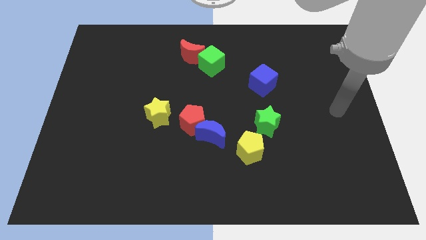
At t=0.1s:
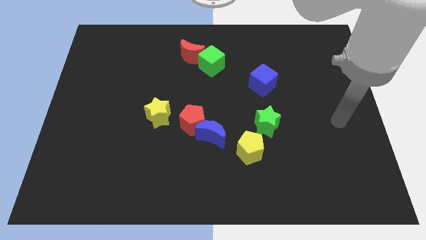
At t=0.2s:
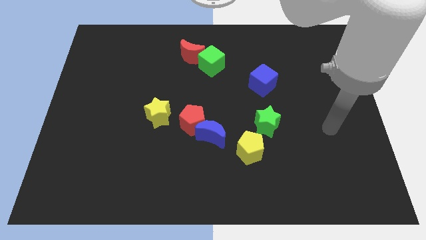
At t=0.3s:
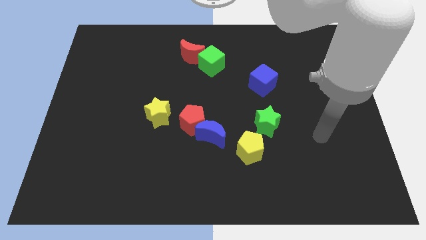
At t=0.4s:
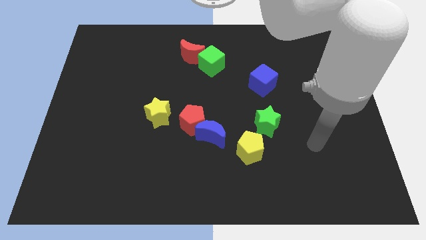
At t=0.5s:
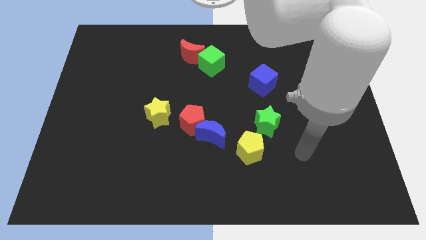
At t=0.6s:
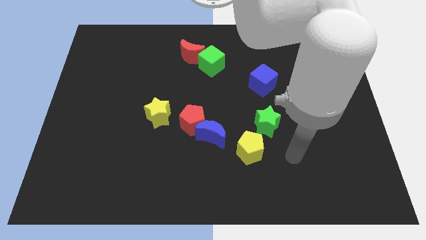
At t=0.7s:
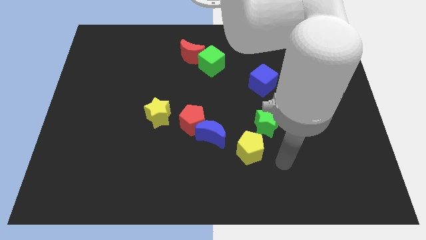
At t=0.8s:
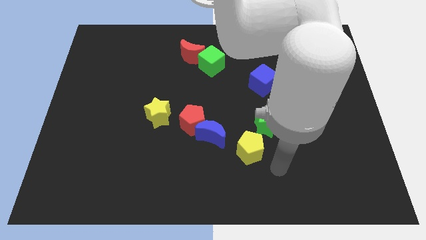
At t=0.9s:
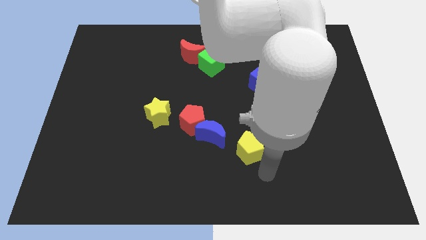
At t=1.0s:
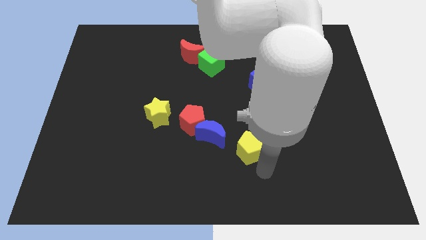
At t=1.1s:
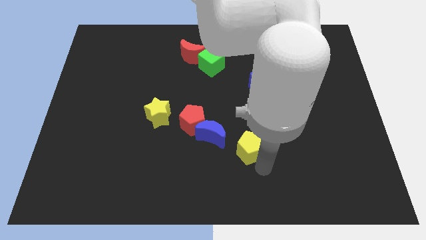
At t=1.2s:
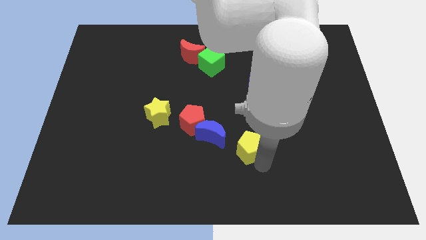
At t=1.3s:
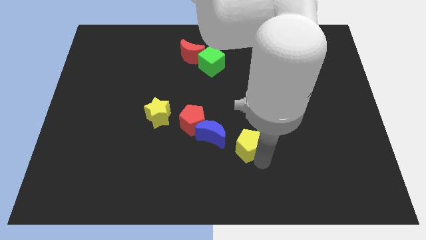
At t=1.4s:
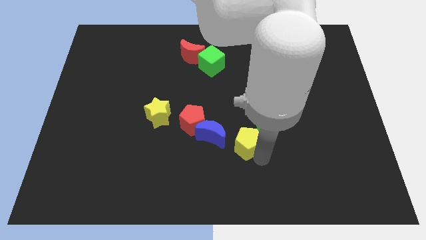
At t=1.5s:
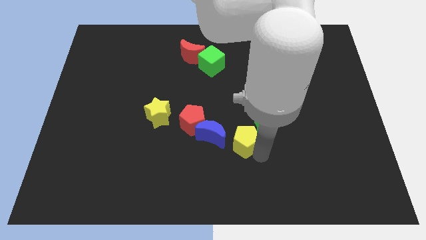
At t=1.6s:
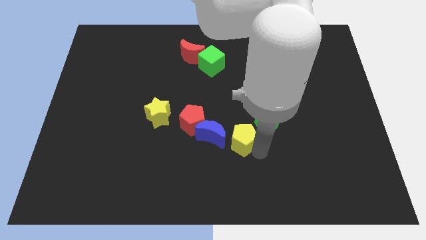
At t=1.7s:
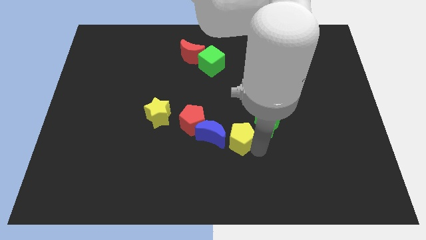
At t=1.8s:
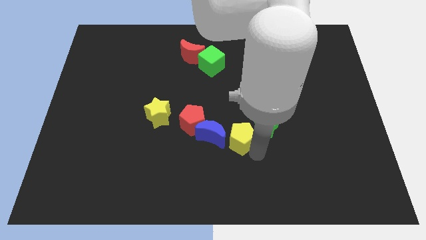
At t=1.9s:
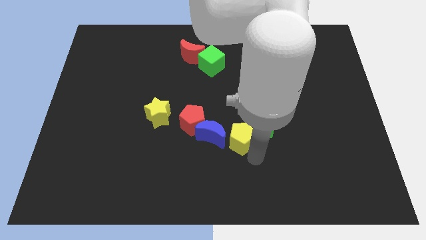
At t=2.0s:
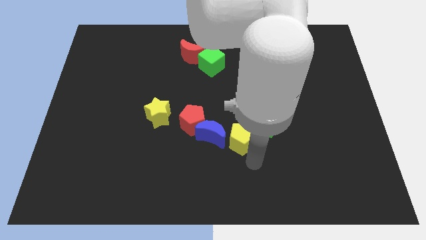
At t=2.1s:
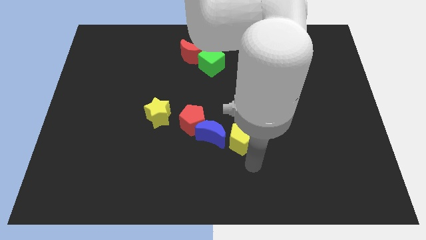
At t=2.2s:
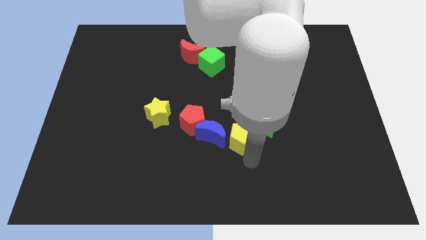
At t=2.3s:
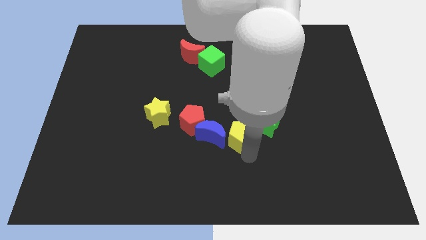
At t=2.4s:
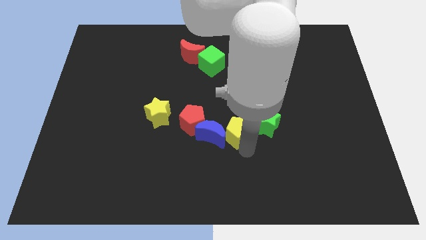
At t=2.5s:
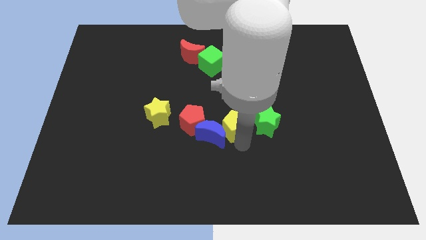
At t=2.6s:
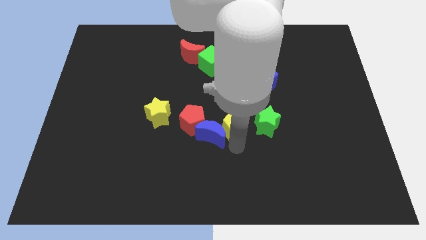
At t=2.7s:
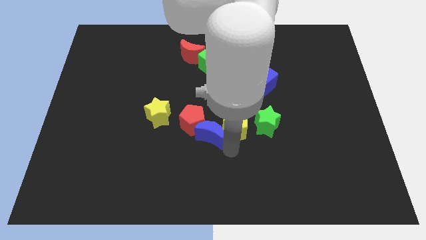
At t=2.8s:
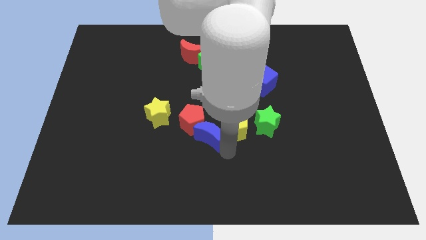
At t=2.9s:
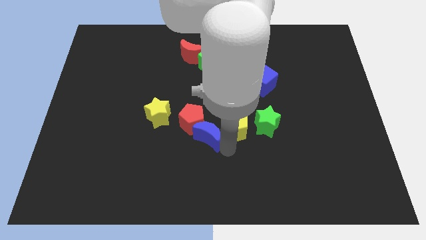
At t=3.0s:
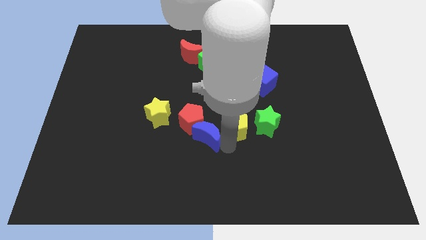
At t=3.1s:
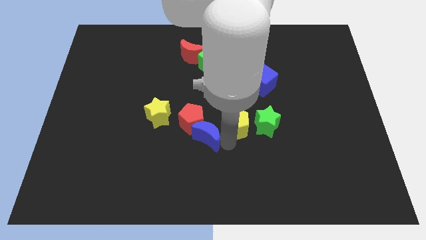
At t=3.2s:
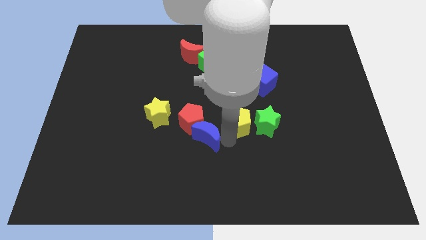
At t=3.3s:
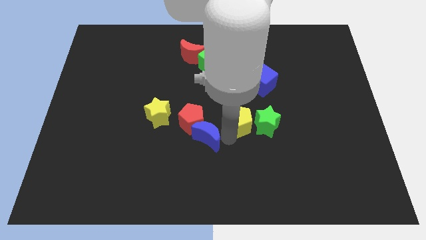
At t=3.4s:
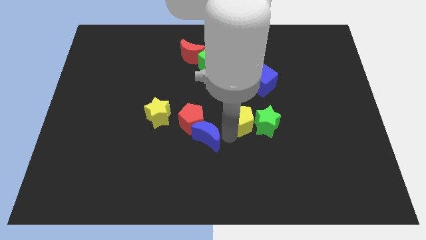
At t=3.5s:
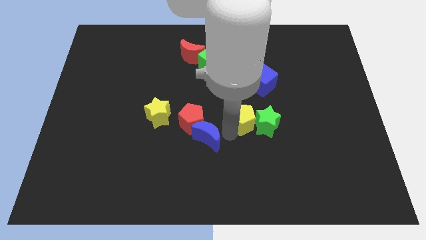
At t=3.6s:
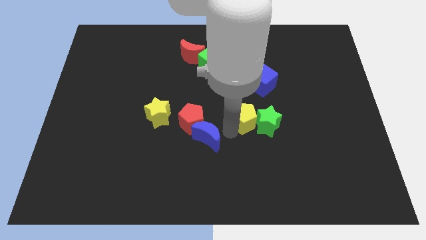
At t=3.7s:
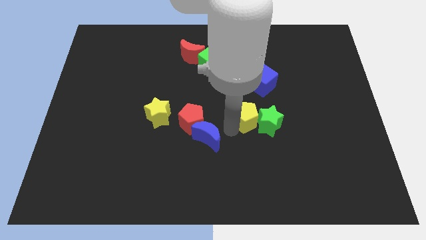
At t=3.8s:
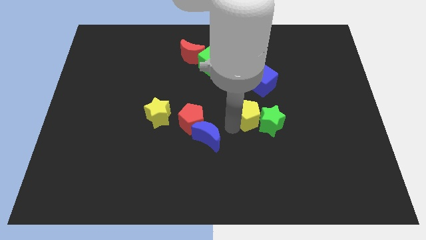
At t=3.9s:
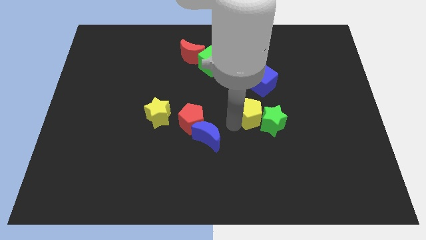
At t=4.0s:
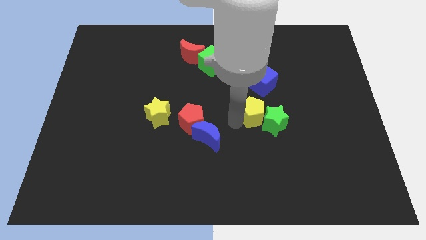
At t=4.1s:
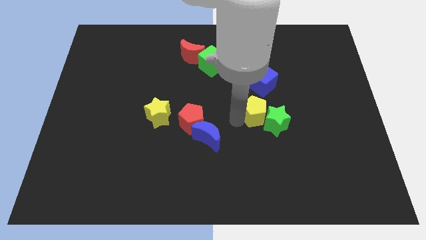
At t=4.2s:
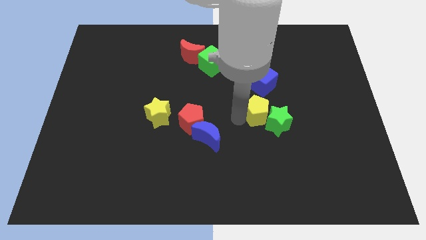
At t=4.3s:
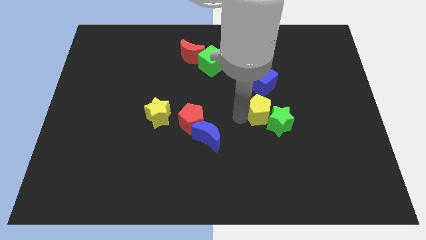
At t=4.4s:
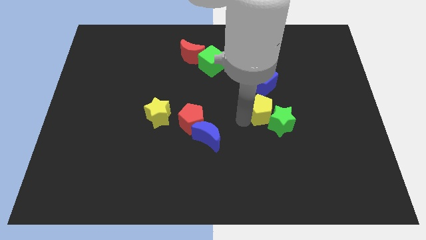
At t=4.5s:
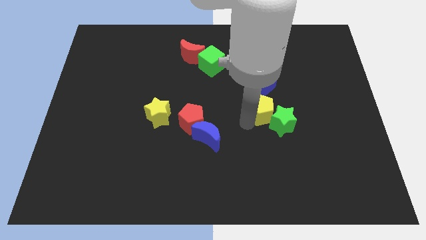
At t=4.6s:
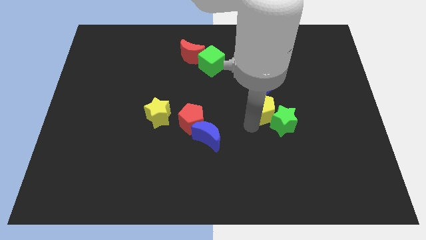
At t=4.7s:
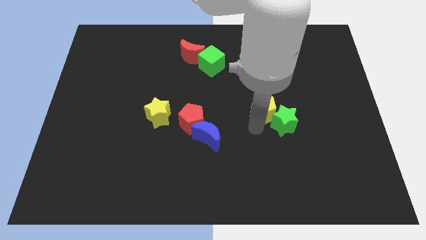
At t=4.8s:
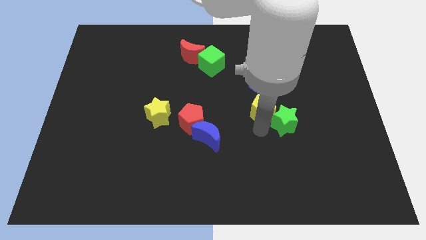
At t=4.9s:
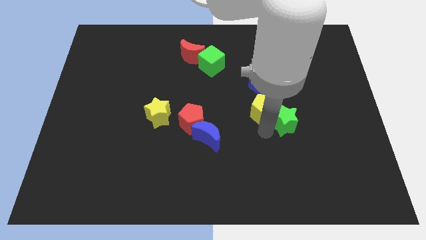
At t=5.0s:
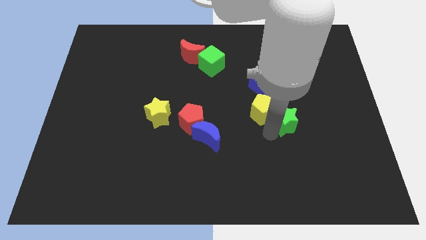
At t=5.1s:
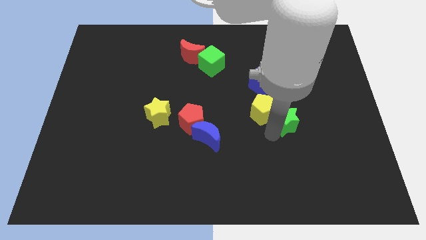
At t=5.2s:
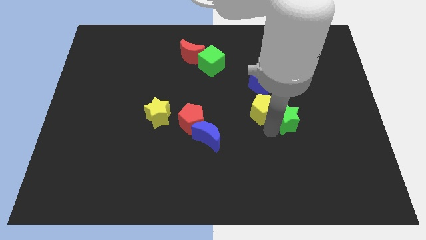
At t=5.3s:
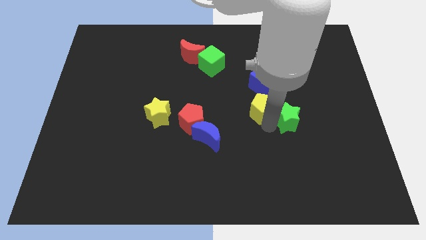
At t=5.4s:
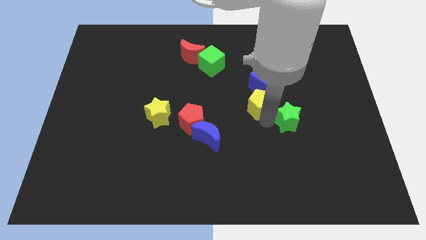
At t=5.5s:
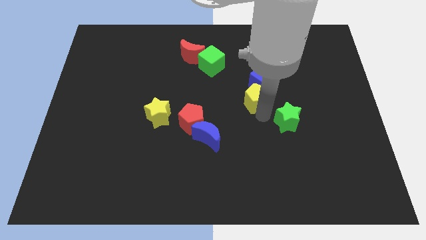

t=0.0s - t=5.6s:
slide the yellow pentagon close to the blue cube

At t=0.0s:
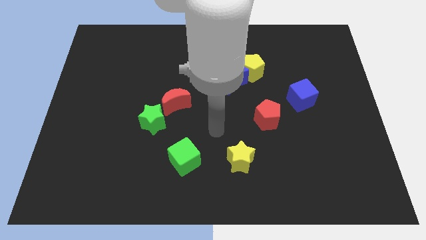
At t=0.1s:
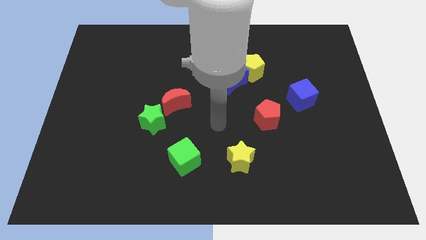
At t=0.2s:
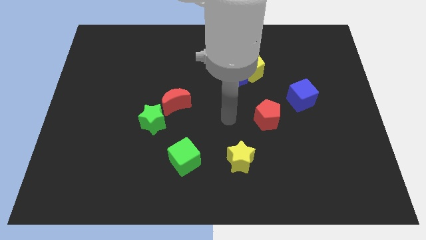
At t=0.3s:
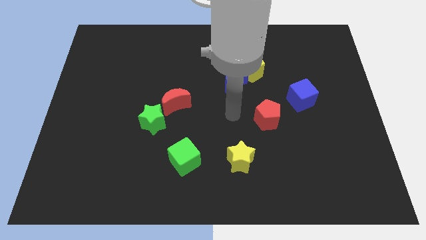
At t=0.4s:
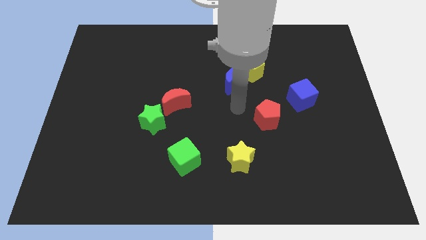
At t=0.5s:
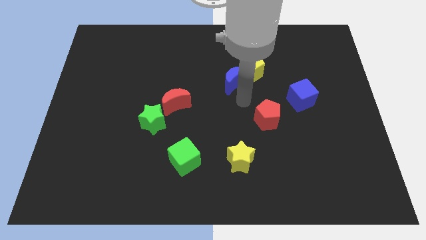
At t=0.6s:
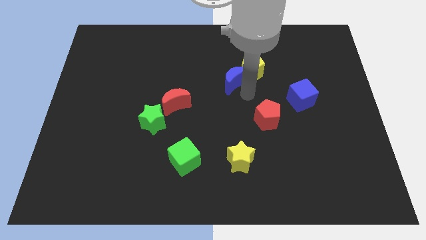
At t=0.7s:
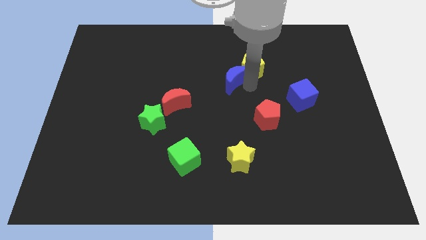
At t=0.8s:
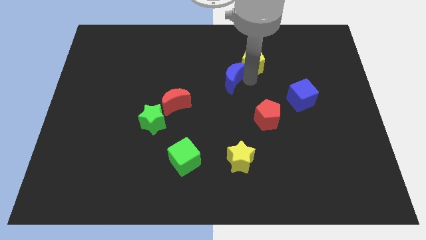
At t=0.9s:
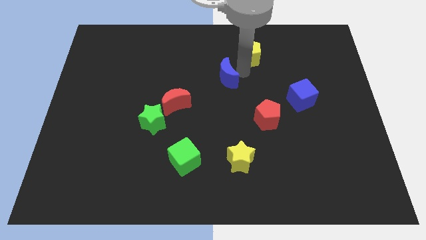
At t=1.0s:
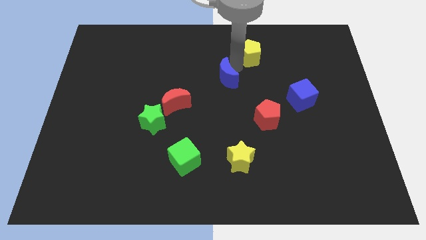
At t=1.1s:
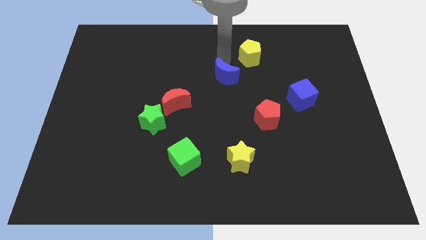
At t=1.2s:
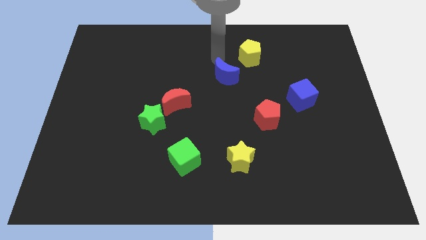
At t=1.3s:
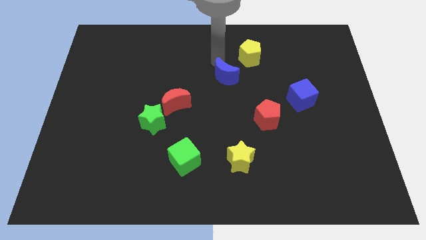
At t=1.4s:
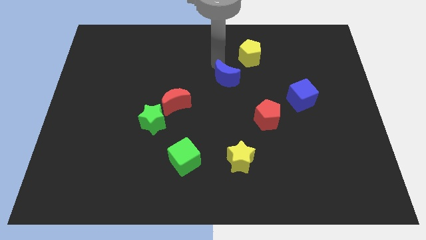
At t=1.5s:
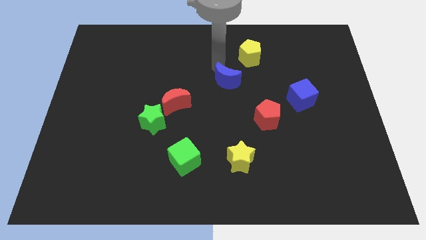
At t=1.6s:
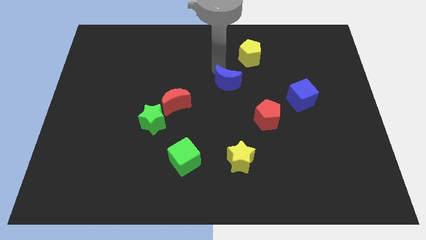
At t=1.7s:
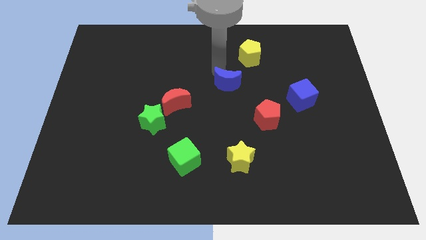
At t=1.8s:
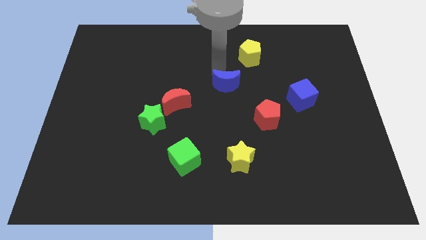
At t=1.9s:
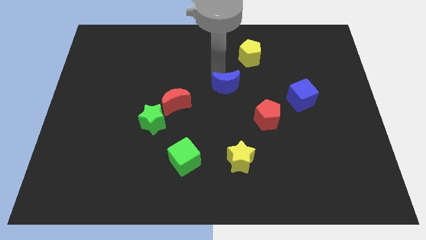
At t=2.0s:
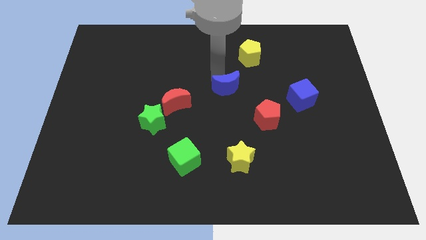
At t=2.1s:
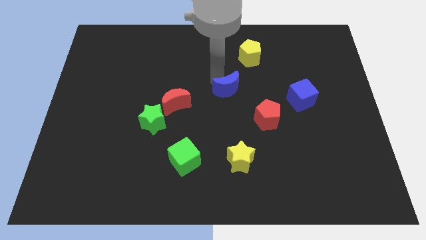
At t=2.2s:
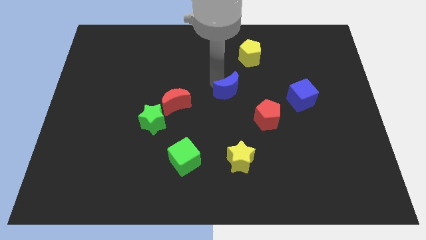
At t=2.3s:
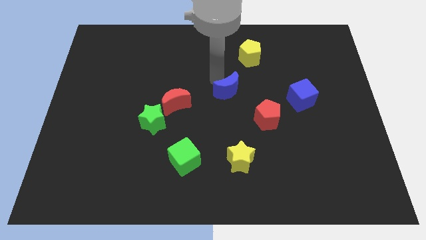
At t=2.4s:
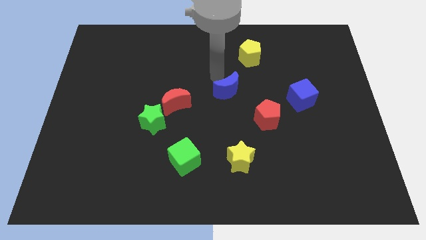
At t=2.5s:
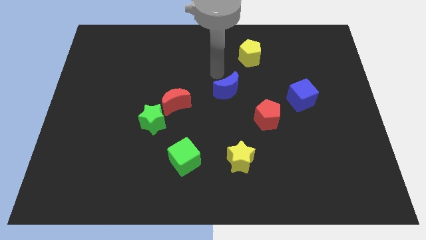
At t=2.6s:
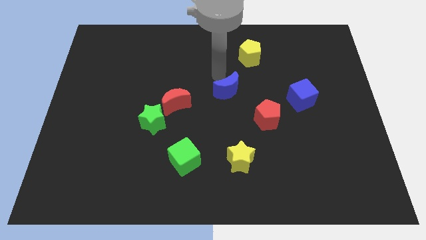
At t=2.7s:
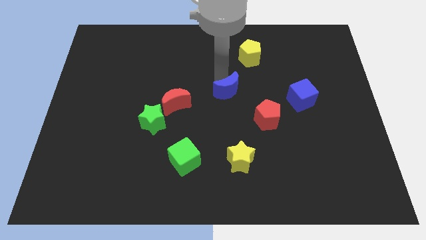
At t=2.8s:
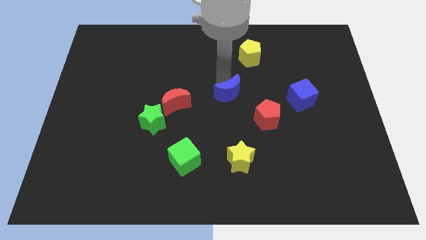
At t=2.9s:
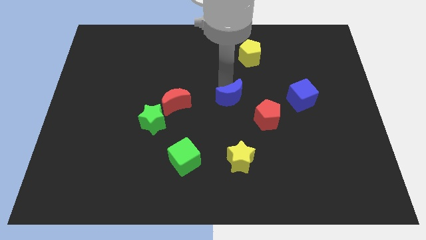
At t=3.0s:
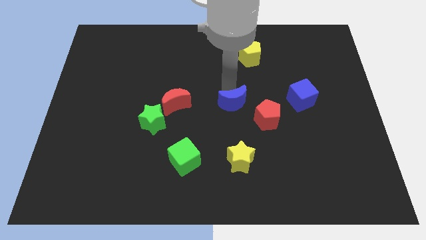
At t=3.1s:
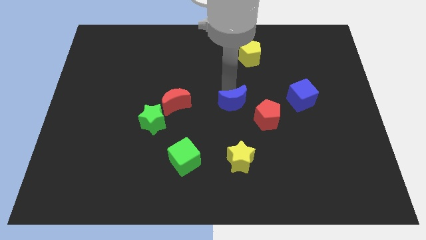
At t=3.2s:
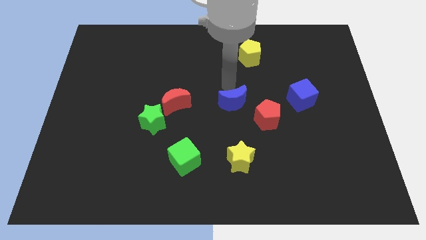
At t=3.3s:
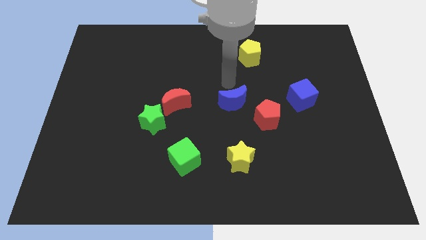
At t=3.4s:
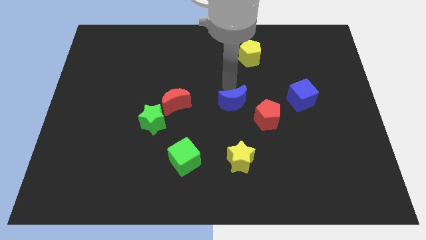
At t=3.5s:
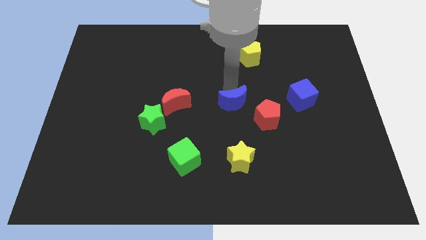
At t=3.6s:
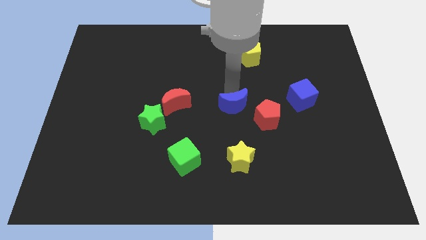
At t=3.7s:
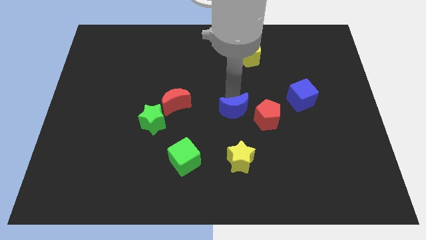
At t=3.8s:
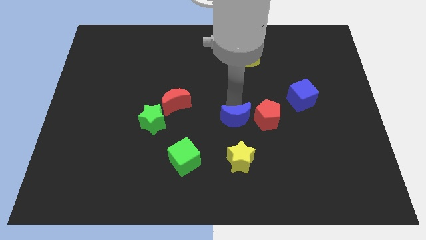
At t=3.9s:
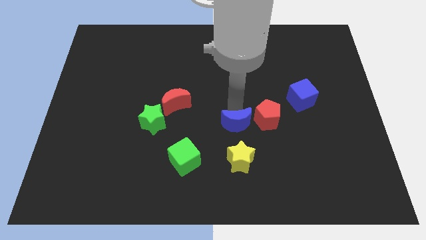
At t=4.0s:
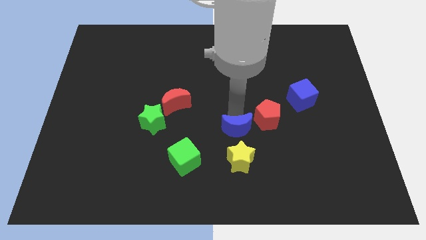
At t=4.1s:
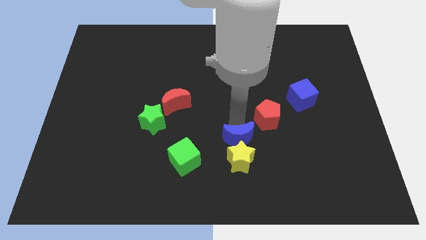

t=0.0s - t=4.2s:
put the blue moon close to the yellow star
